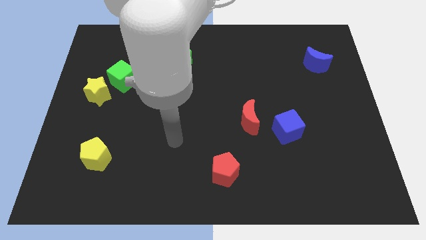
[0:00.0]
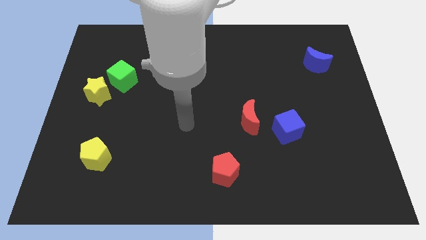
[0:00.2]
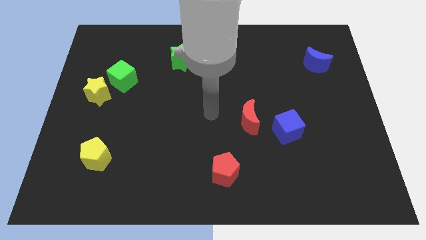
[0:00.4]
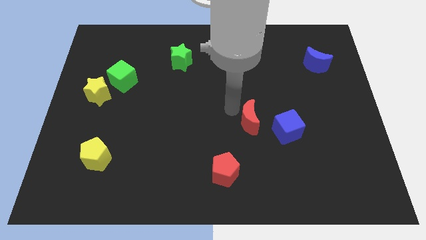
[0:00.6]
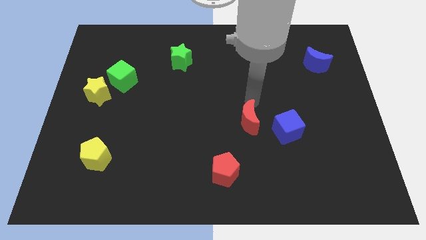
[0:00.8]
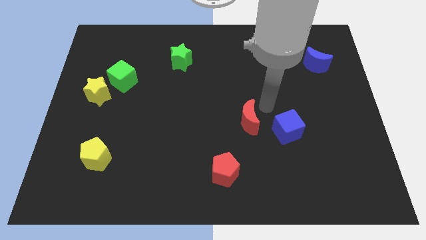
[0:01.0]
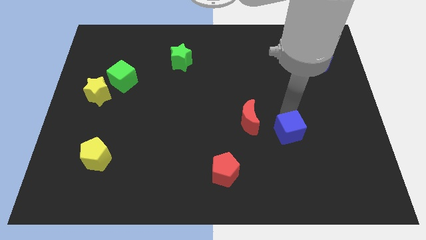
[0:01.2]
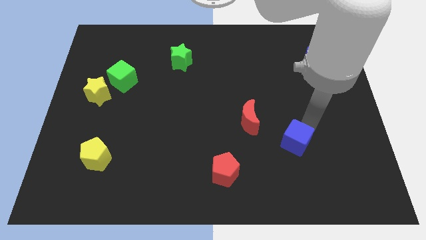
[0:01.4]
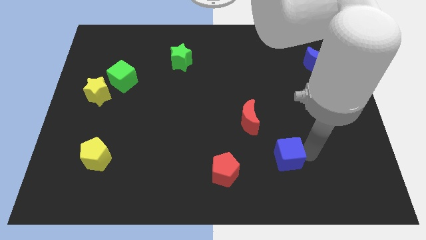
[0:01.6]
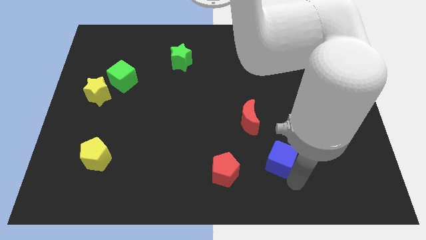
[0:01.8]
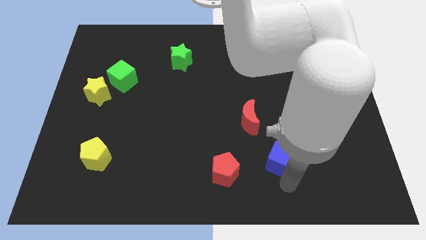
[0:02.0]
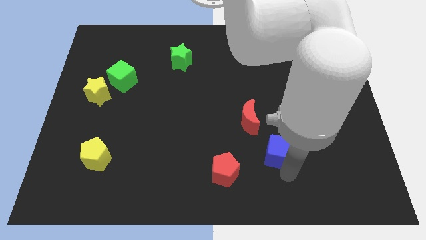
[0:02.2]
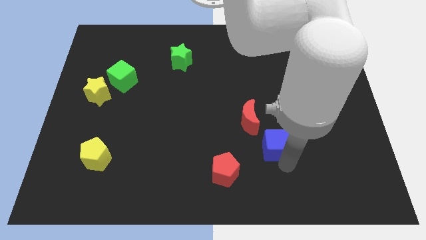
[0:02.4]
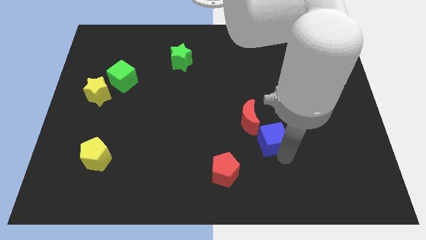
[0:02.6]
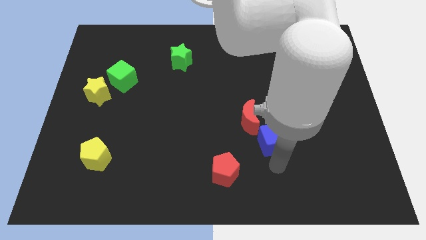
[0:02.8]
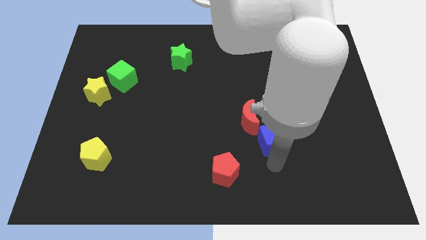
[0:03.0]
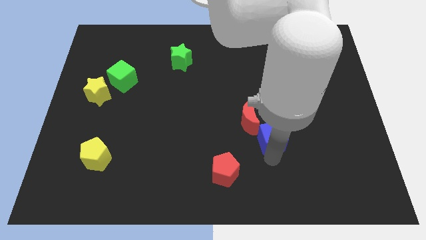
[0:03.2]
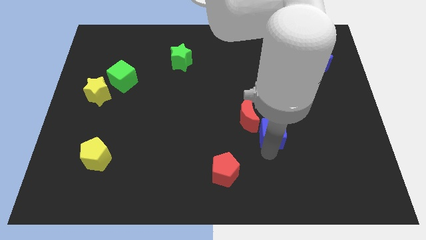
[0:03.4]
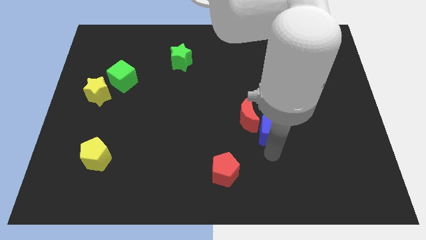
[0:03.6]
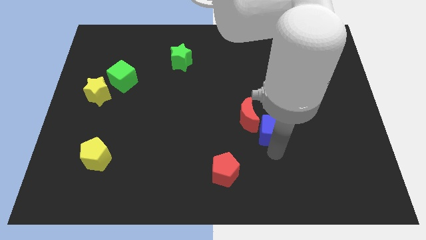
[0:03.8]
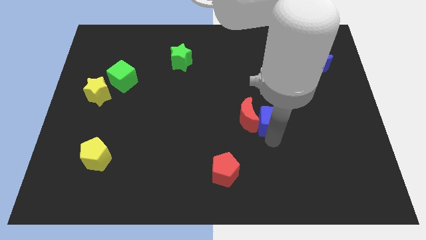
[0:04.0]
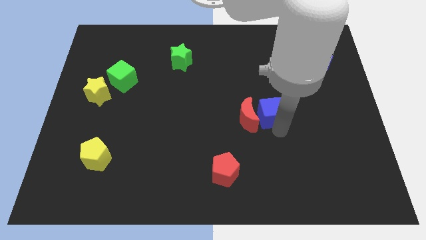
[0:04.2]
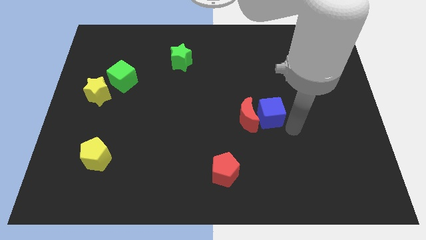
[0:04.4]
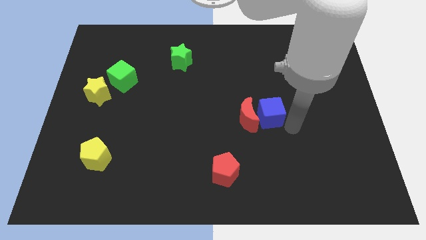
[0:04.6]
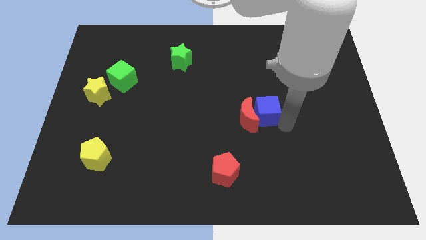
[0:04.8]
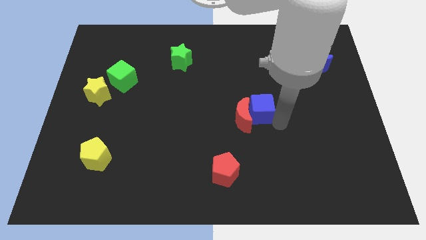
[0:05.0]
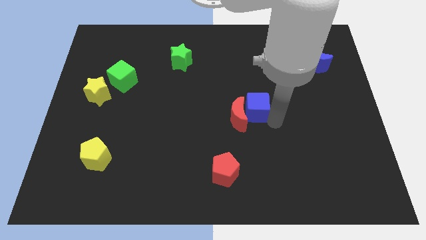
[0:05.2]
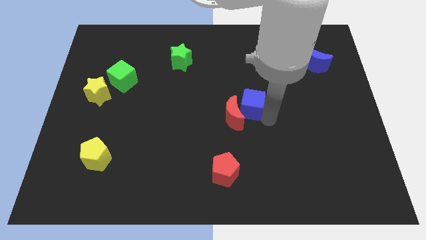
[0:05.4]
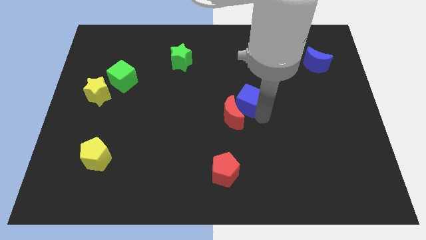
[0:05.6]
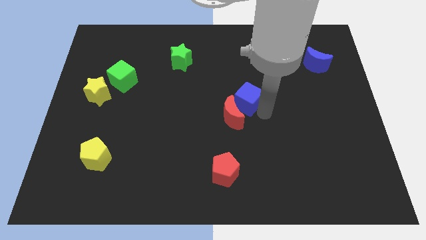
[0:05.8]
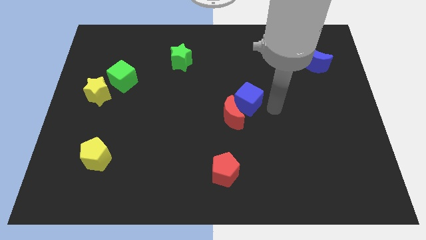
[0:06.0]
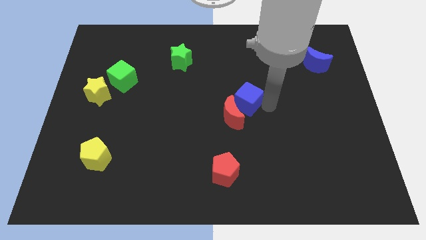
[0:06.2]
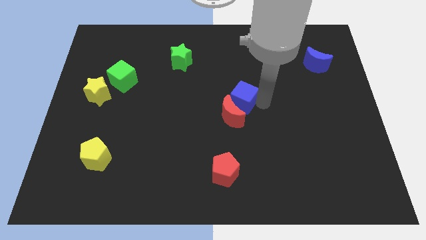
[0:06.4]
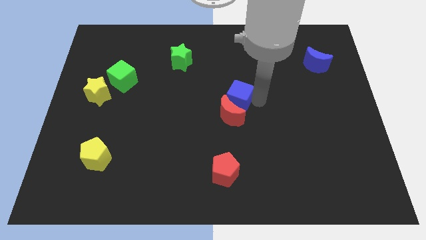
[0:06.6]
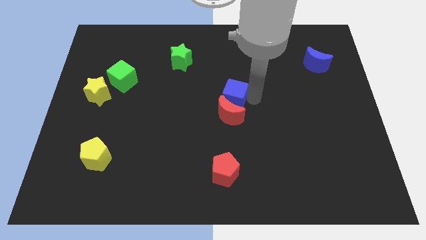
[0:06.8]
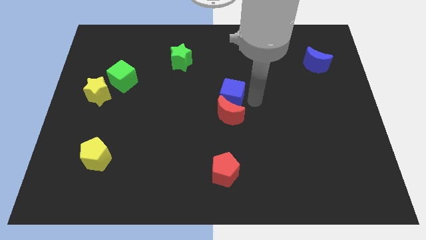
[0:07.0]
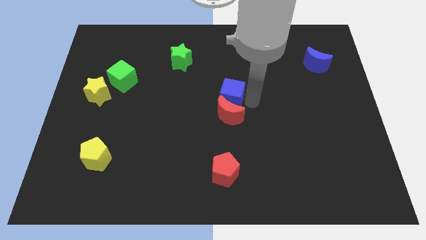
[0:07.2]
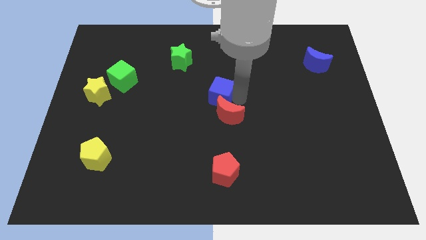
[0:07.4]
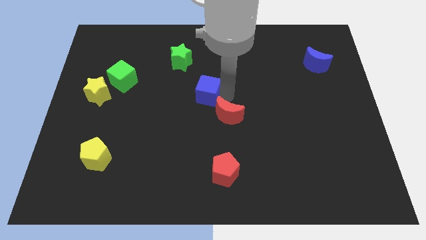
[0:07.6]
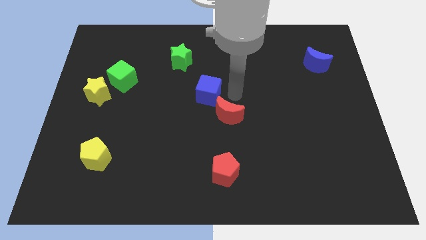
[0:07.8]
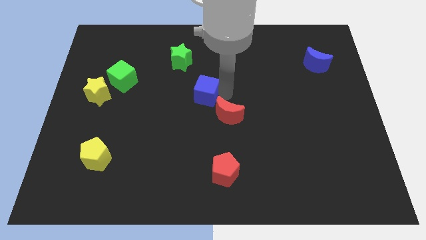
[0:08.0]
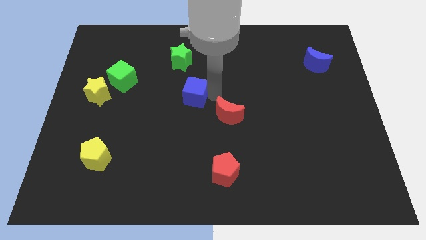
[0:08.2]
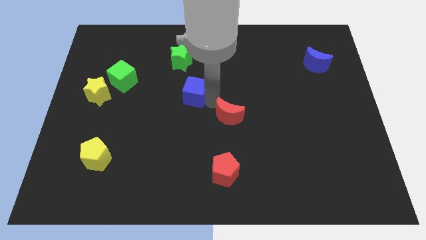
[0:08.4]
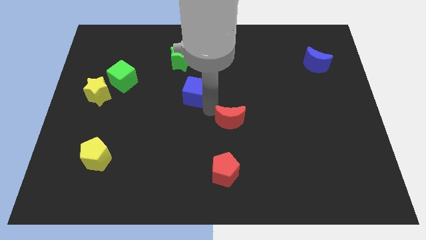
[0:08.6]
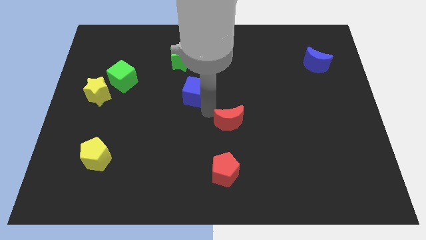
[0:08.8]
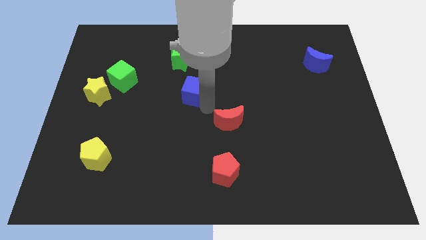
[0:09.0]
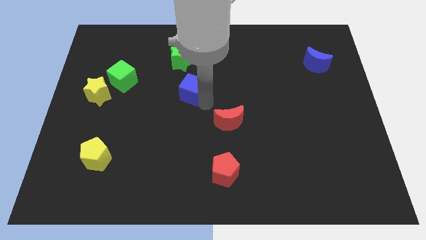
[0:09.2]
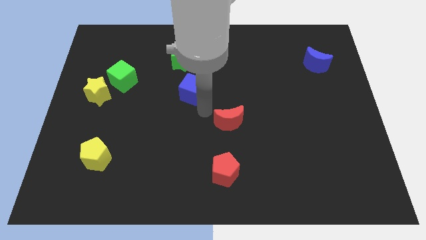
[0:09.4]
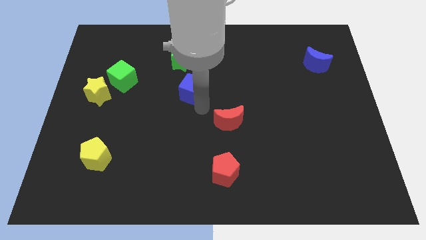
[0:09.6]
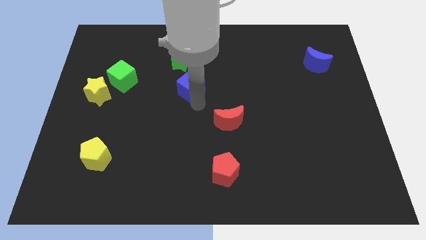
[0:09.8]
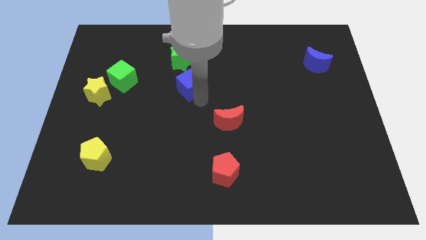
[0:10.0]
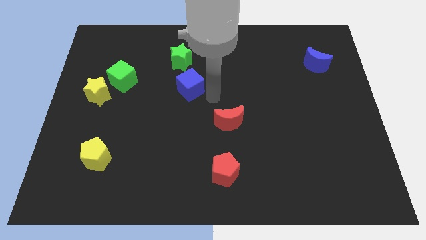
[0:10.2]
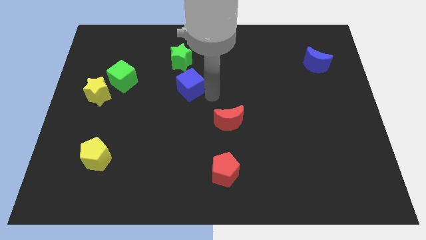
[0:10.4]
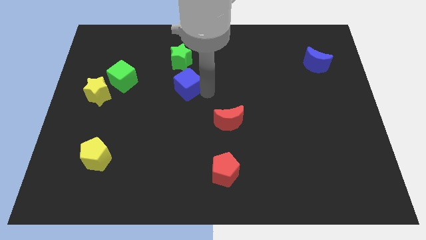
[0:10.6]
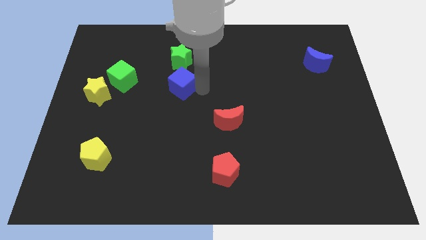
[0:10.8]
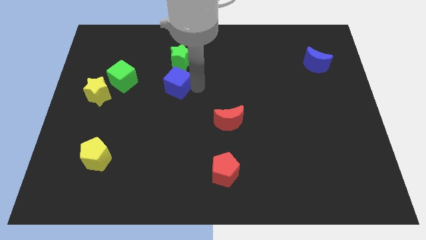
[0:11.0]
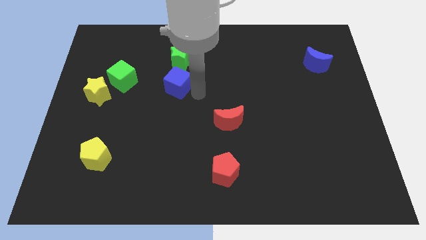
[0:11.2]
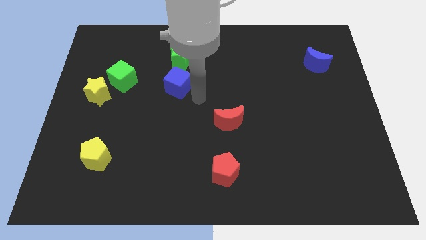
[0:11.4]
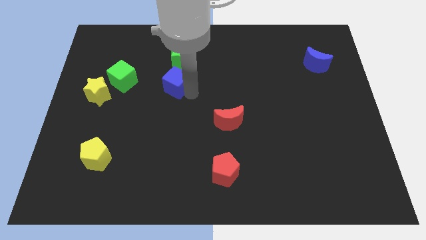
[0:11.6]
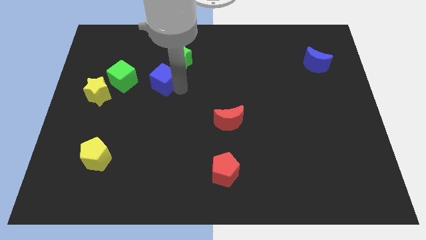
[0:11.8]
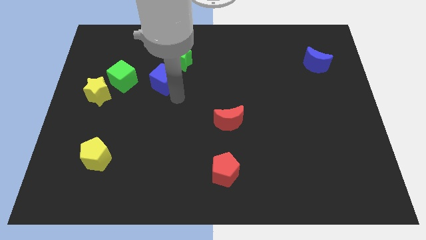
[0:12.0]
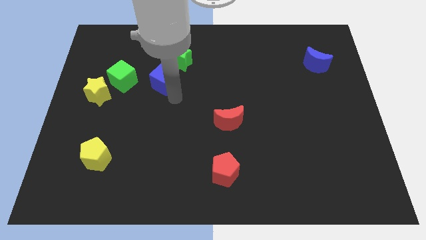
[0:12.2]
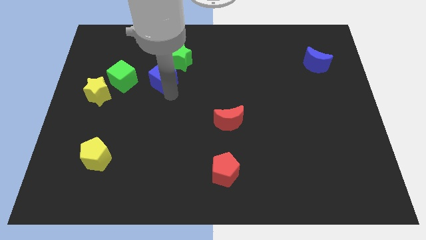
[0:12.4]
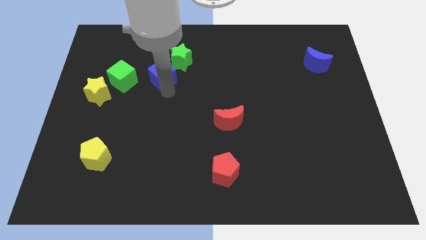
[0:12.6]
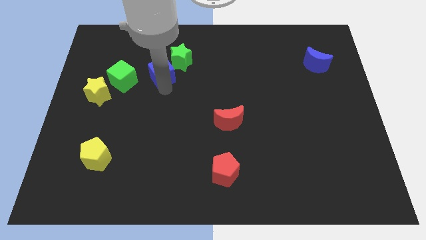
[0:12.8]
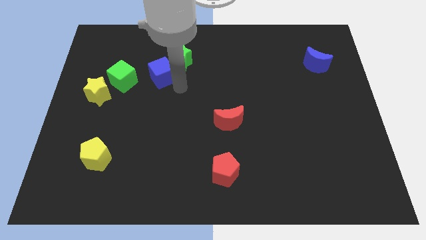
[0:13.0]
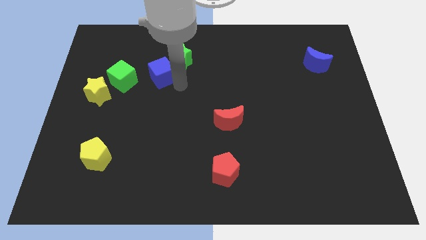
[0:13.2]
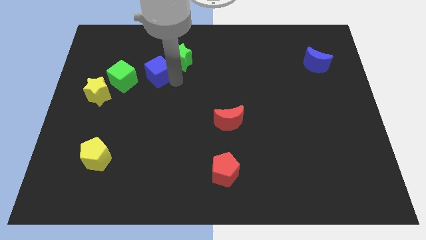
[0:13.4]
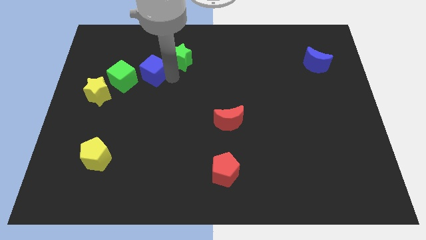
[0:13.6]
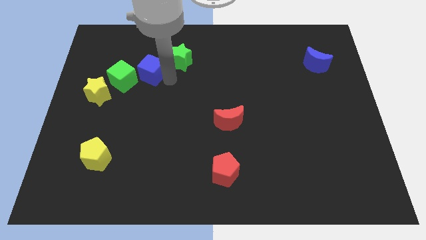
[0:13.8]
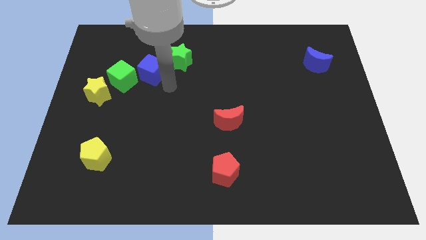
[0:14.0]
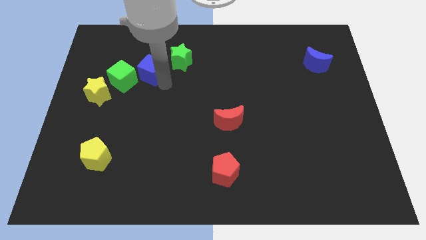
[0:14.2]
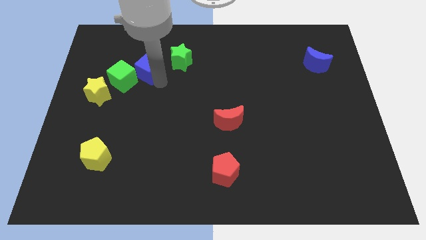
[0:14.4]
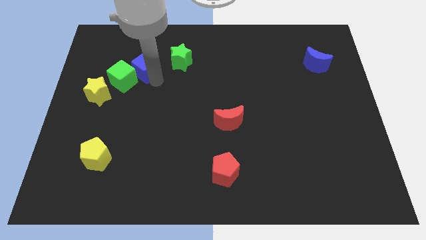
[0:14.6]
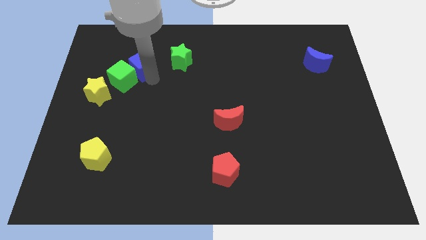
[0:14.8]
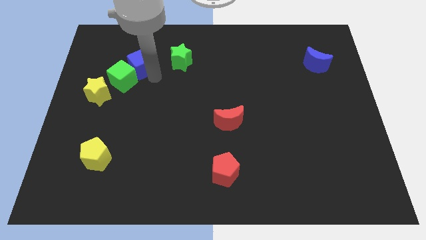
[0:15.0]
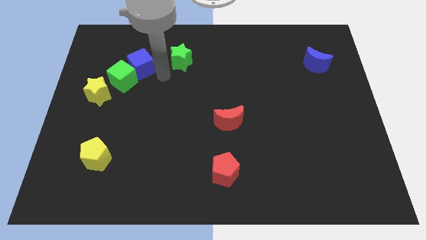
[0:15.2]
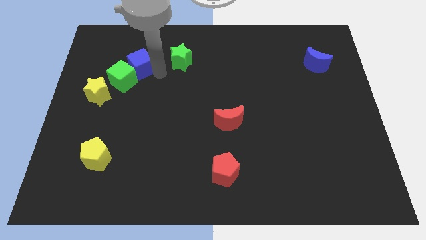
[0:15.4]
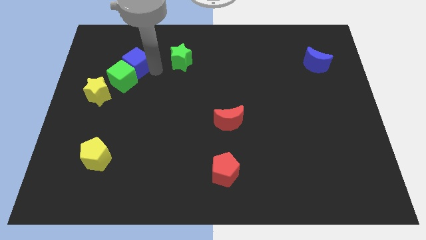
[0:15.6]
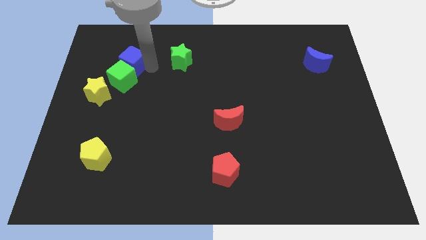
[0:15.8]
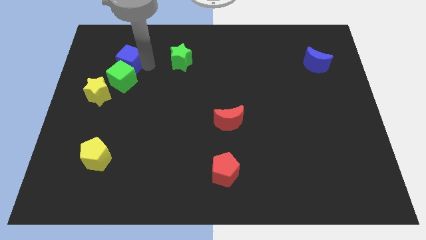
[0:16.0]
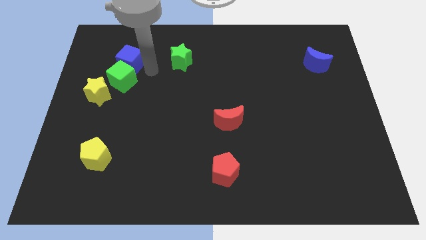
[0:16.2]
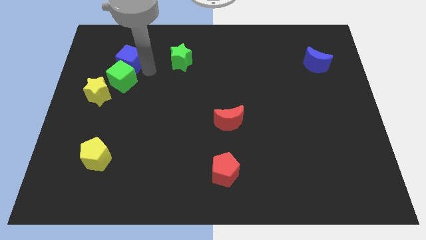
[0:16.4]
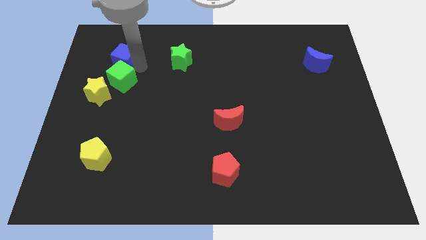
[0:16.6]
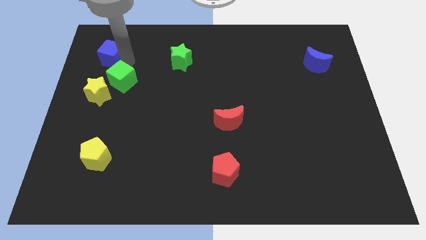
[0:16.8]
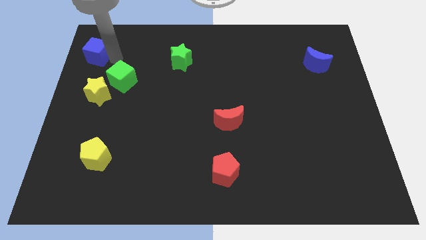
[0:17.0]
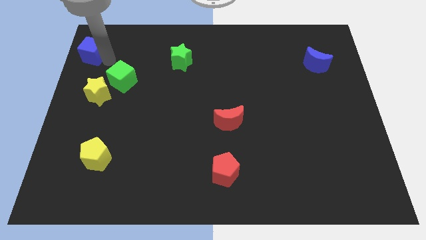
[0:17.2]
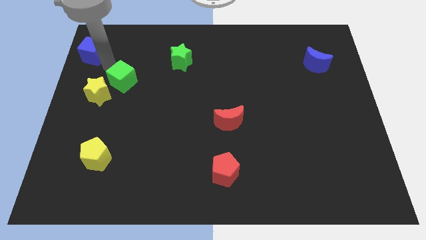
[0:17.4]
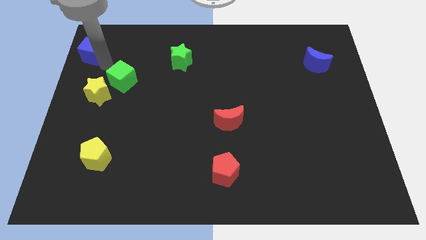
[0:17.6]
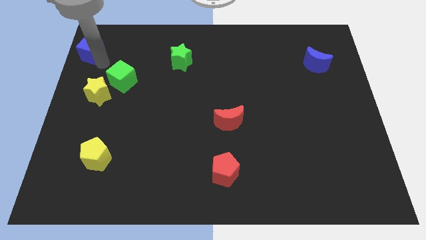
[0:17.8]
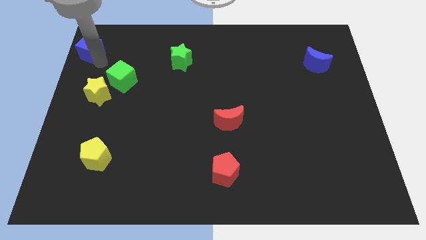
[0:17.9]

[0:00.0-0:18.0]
slide the blue cube to the upper left corner
